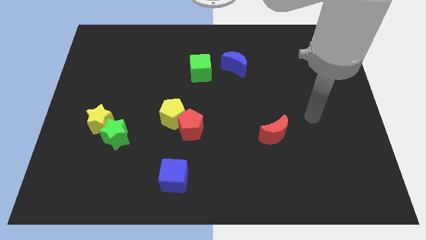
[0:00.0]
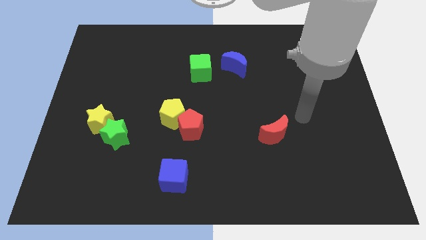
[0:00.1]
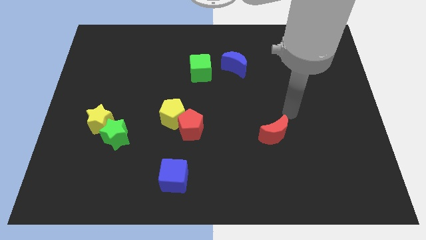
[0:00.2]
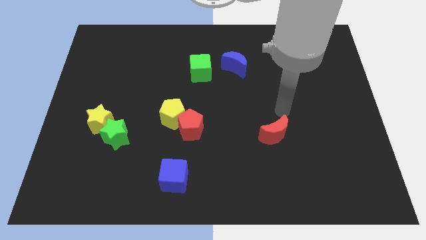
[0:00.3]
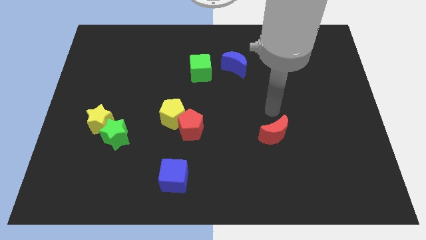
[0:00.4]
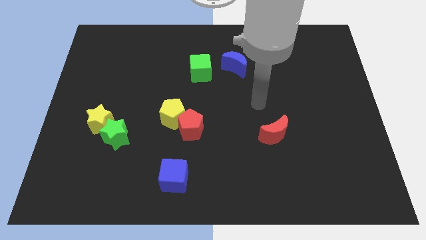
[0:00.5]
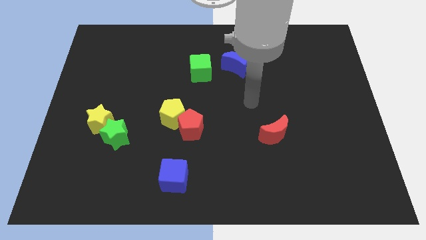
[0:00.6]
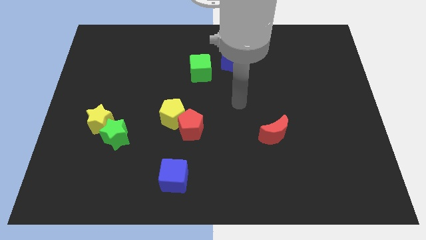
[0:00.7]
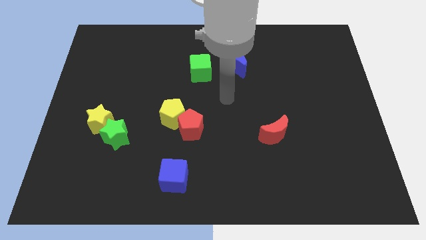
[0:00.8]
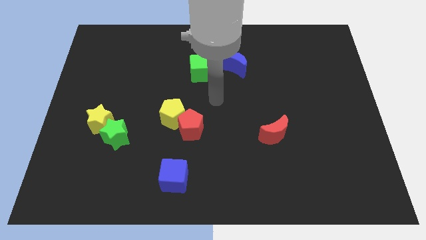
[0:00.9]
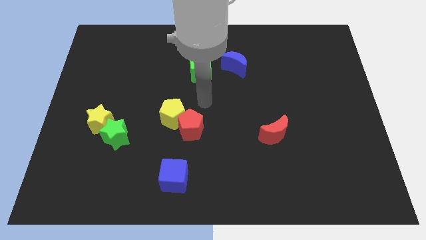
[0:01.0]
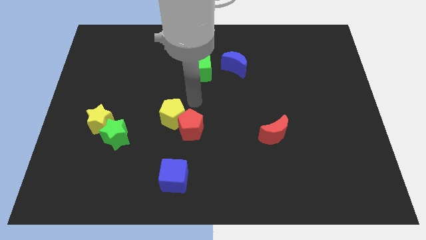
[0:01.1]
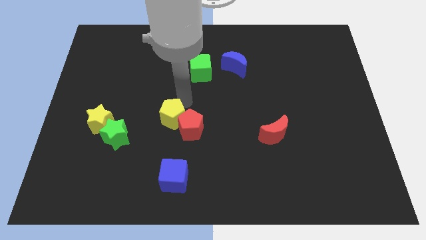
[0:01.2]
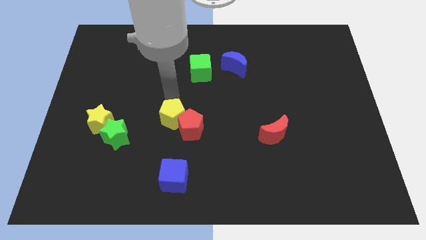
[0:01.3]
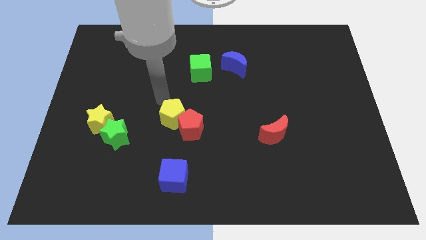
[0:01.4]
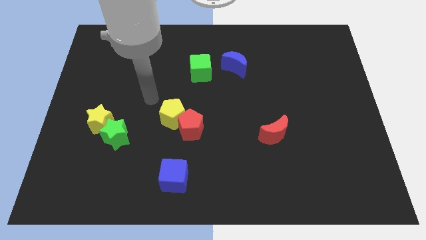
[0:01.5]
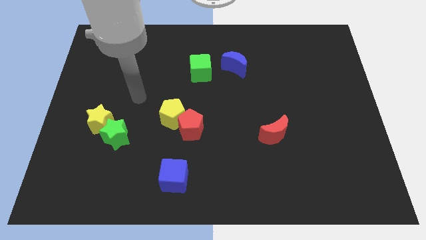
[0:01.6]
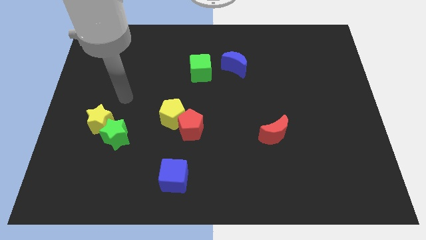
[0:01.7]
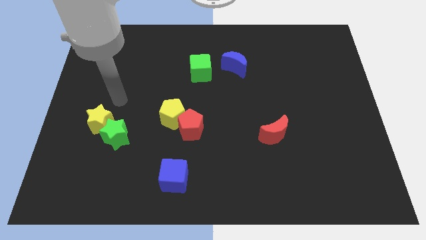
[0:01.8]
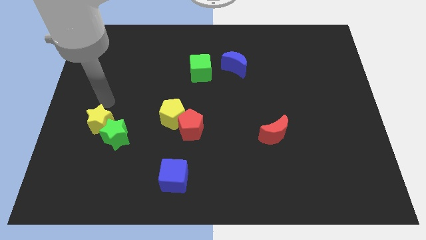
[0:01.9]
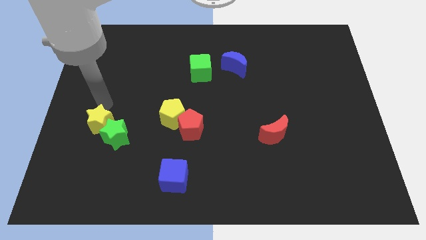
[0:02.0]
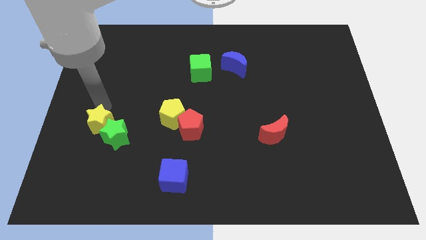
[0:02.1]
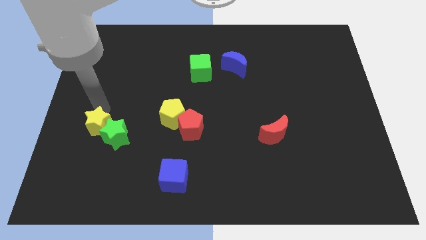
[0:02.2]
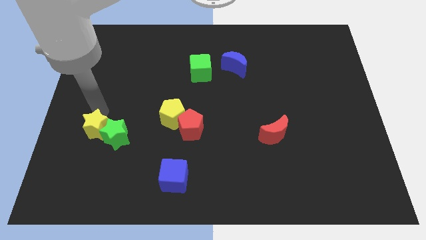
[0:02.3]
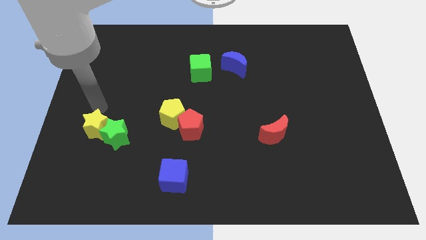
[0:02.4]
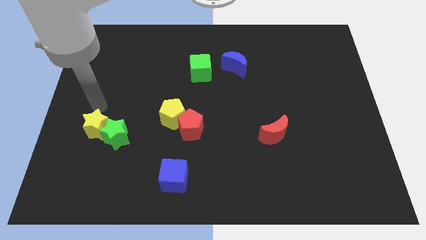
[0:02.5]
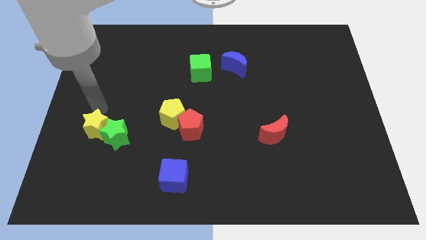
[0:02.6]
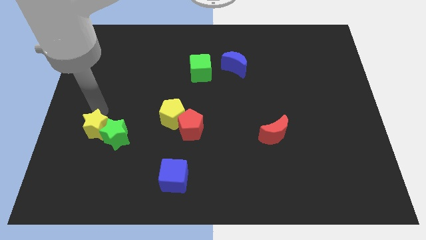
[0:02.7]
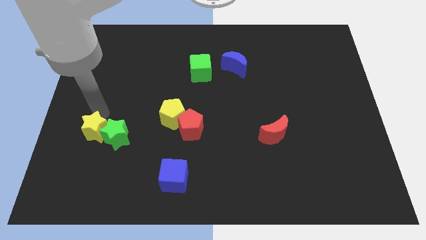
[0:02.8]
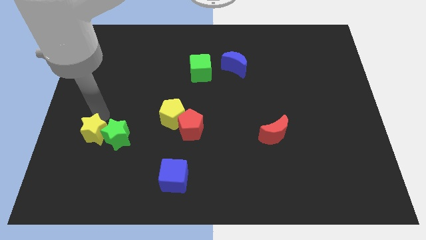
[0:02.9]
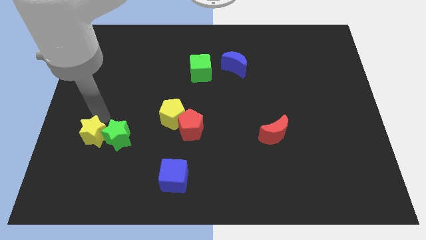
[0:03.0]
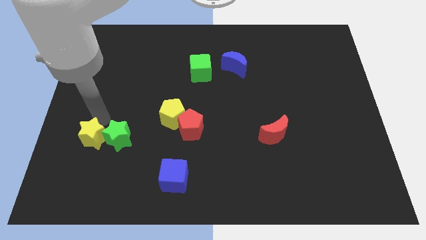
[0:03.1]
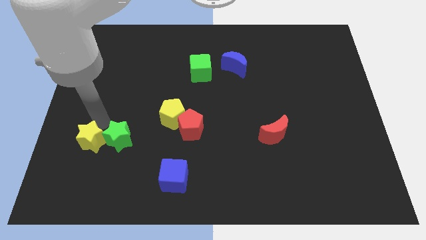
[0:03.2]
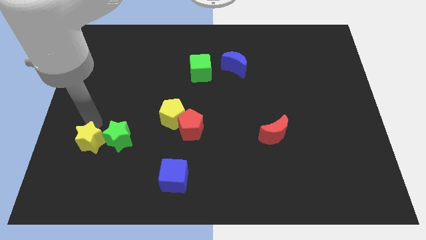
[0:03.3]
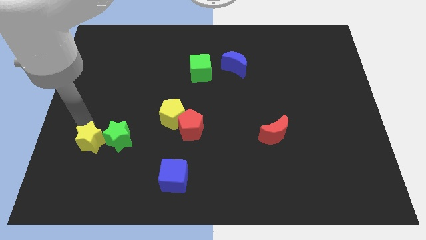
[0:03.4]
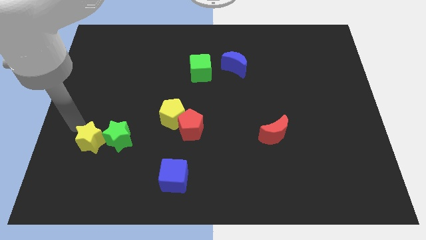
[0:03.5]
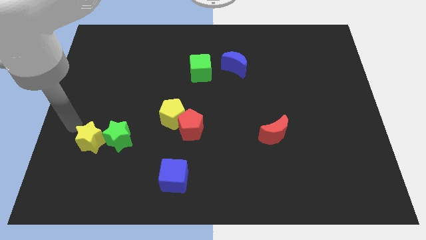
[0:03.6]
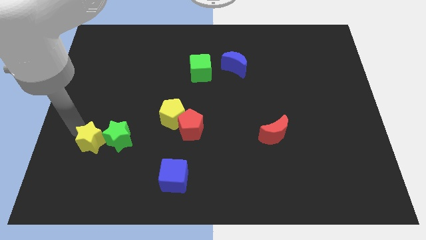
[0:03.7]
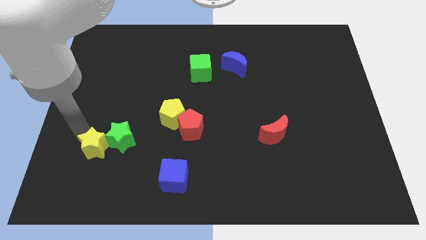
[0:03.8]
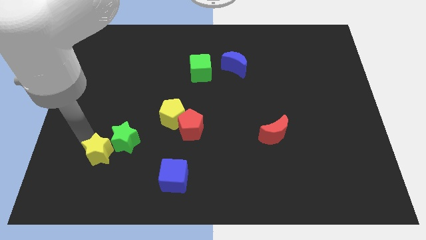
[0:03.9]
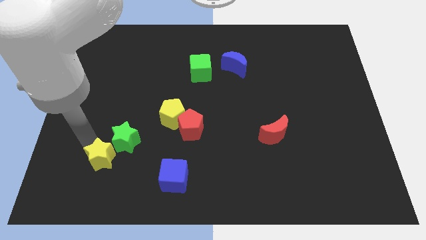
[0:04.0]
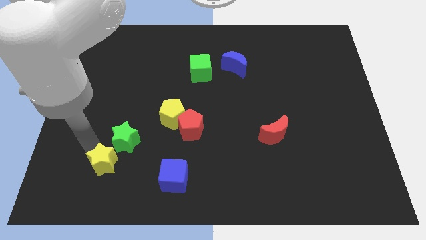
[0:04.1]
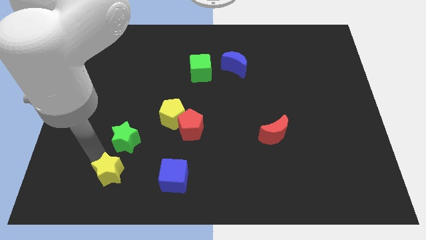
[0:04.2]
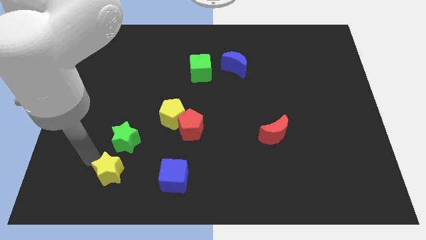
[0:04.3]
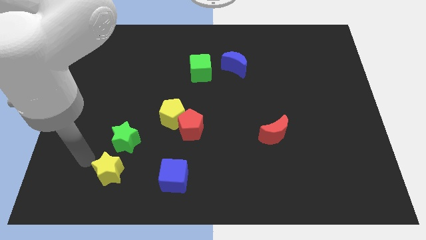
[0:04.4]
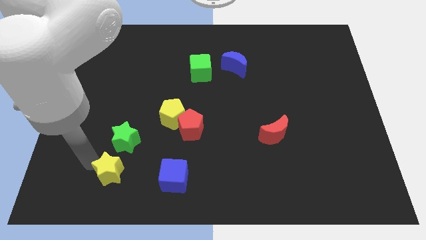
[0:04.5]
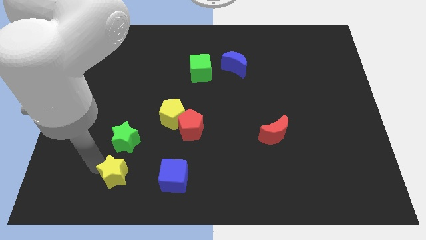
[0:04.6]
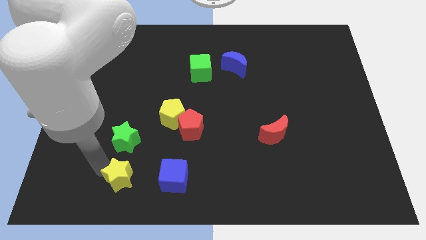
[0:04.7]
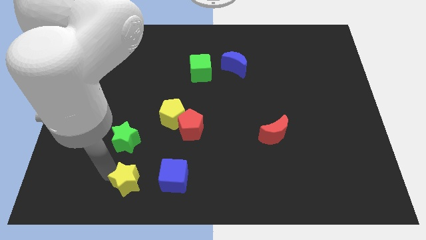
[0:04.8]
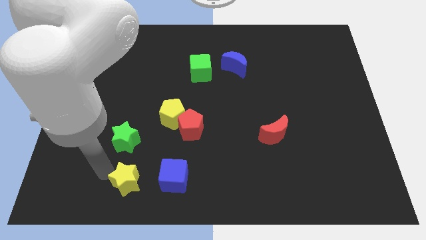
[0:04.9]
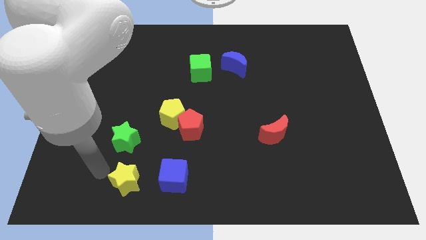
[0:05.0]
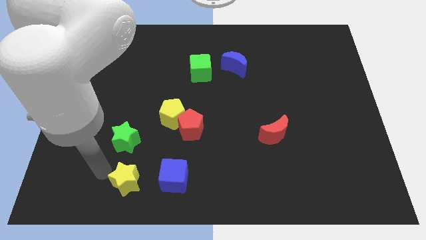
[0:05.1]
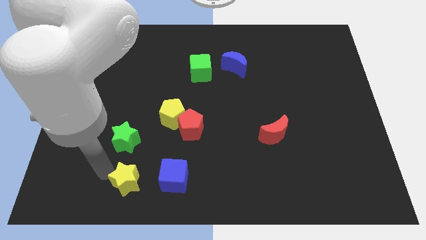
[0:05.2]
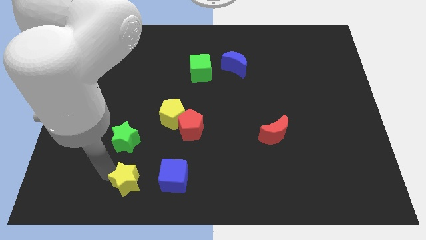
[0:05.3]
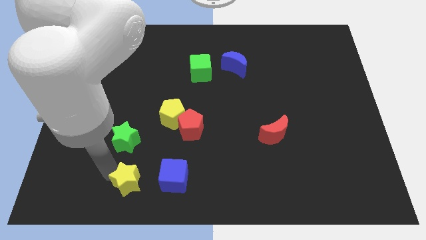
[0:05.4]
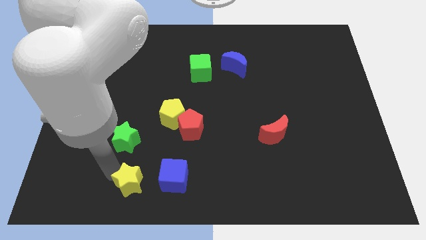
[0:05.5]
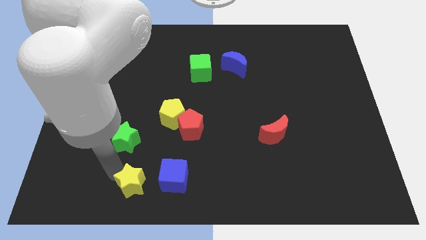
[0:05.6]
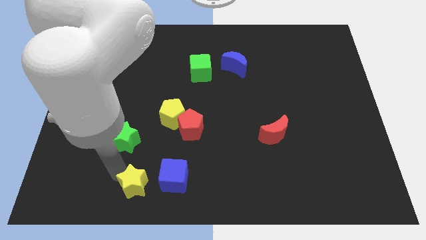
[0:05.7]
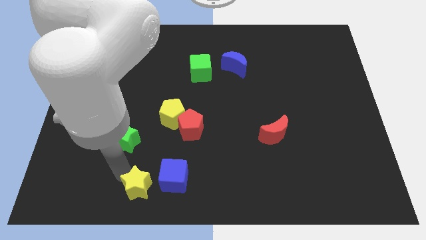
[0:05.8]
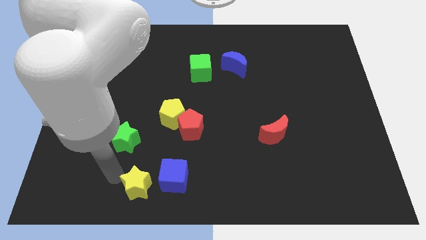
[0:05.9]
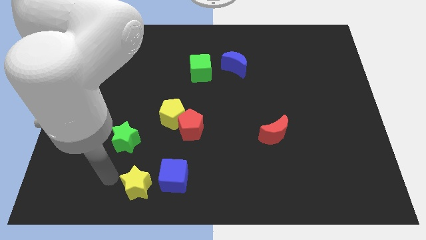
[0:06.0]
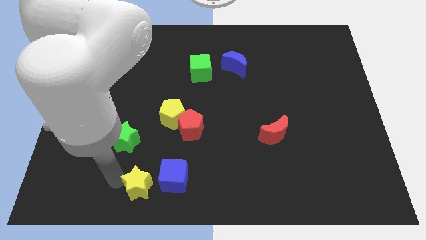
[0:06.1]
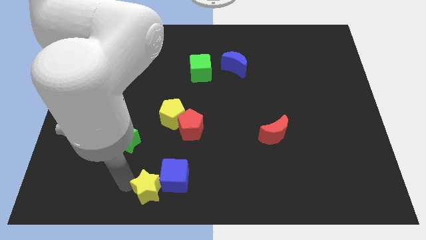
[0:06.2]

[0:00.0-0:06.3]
push the yellow star to the bottom

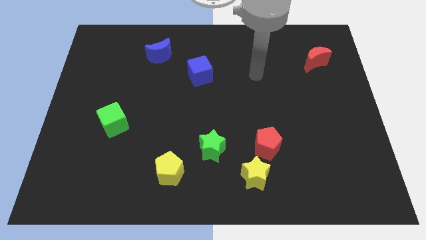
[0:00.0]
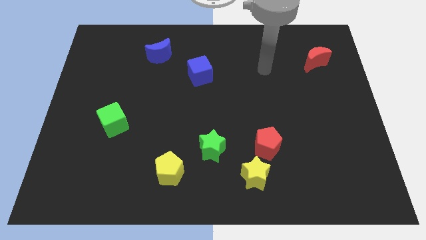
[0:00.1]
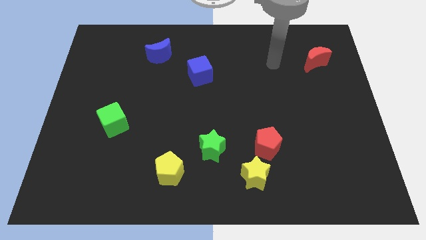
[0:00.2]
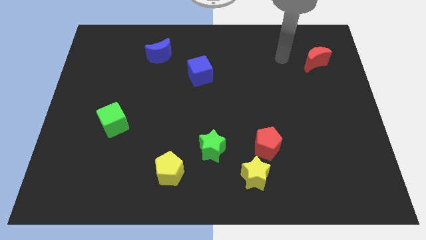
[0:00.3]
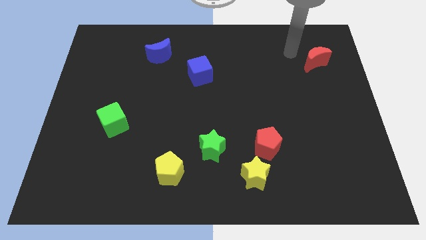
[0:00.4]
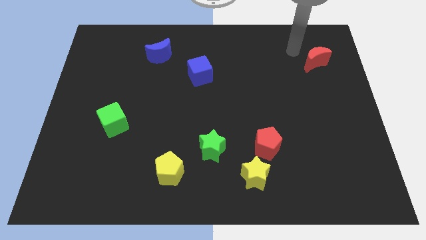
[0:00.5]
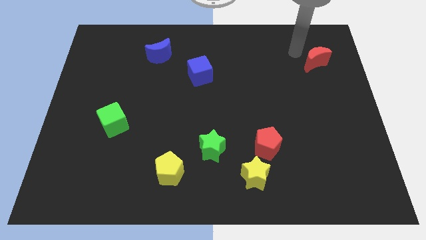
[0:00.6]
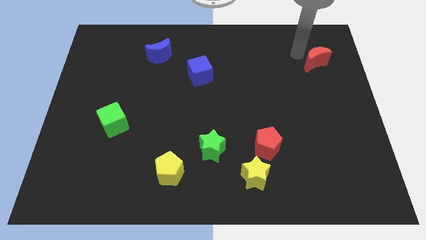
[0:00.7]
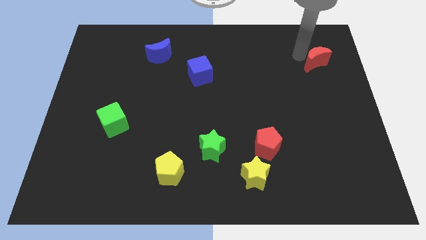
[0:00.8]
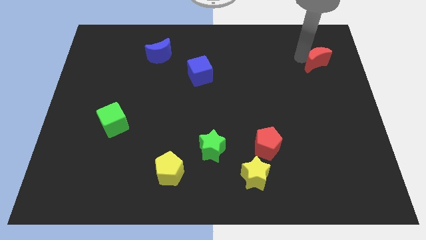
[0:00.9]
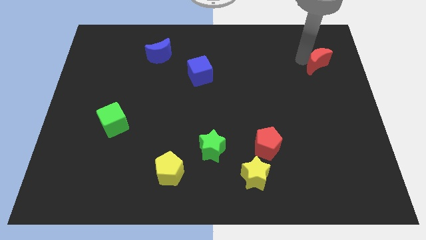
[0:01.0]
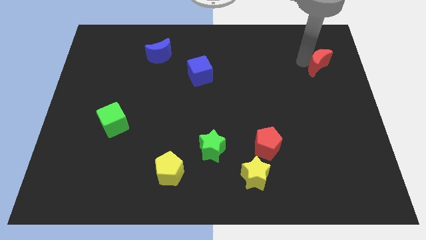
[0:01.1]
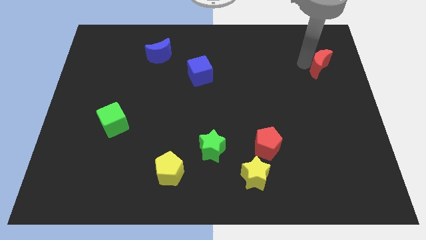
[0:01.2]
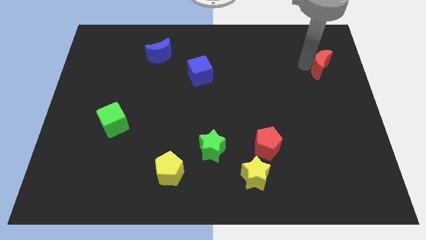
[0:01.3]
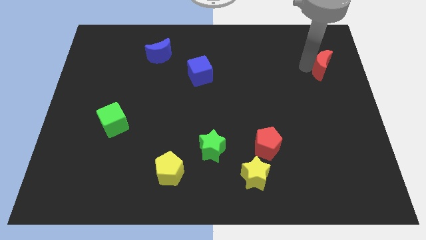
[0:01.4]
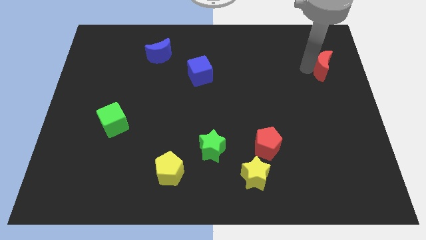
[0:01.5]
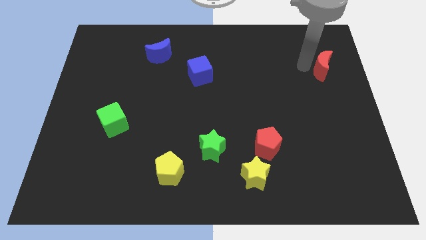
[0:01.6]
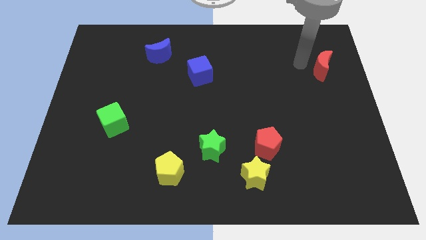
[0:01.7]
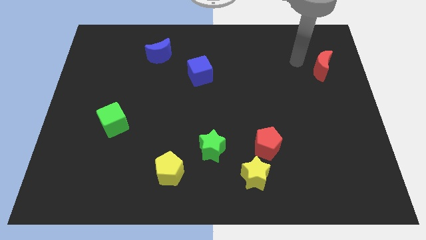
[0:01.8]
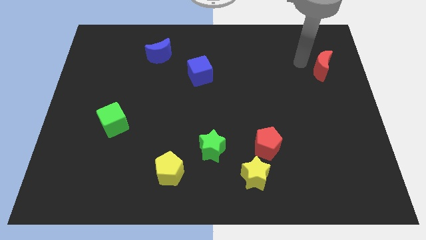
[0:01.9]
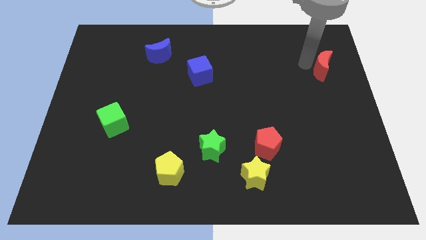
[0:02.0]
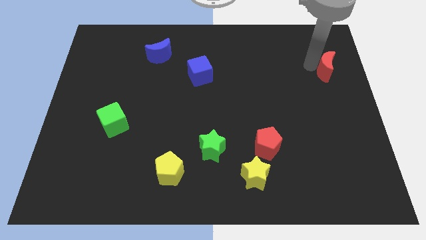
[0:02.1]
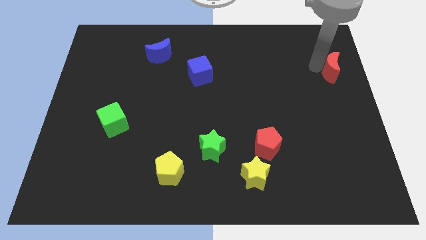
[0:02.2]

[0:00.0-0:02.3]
put the red moon to the right side of the board
